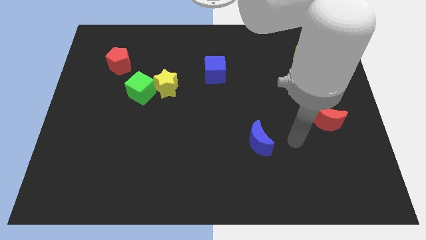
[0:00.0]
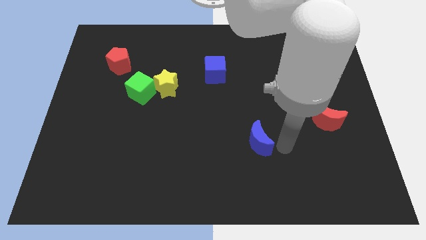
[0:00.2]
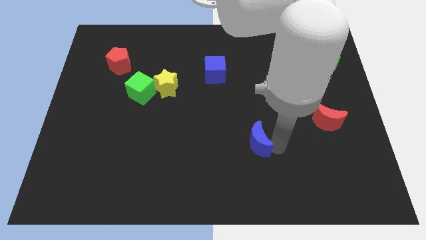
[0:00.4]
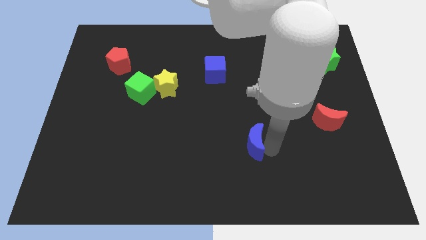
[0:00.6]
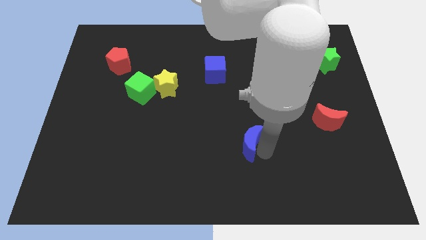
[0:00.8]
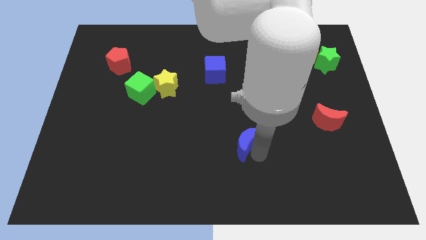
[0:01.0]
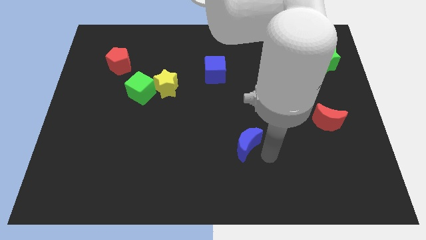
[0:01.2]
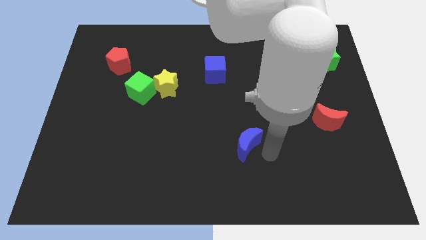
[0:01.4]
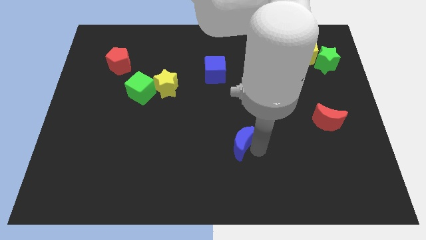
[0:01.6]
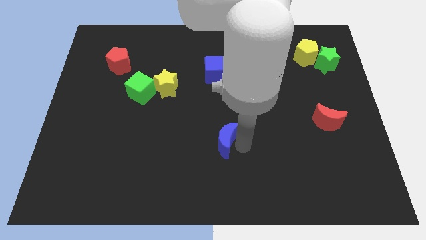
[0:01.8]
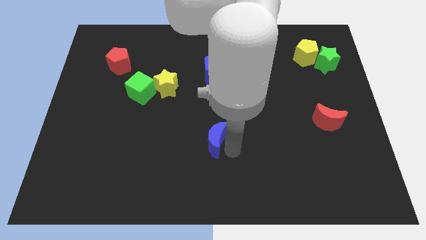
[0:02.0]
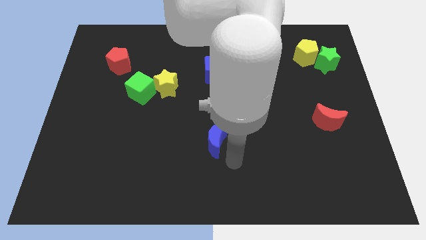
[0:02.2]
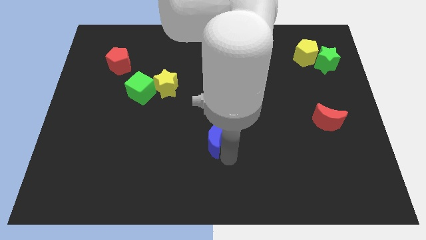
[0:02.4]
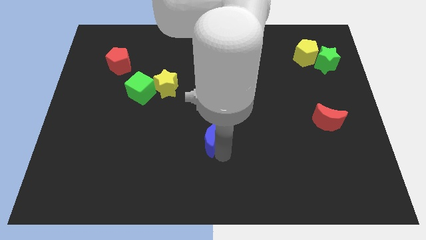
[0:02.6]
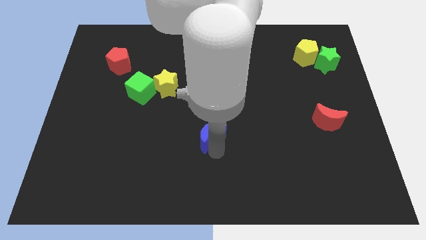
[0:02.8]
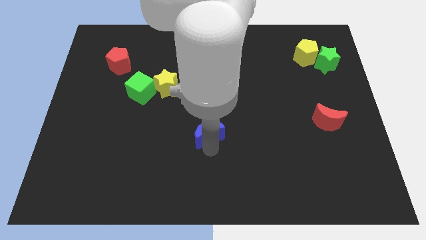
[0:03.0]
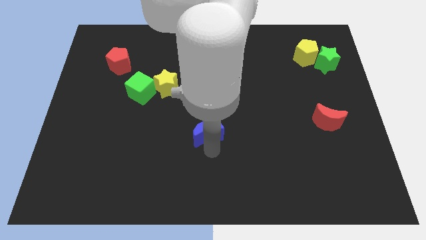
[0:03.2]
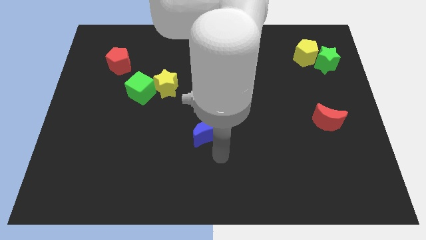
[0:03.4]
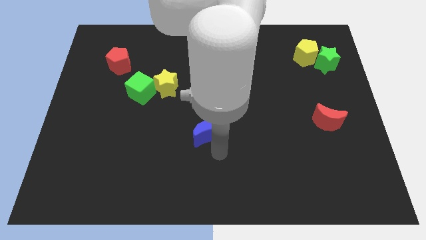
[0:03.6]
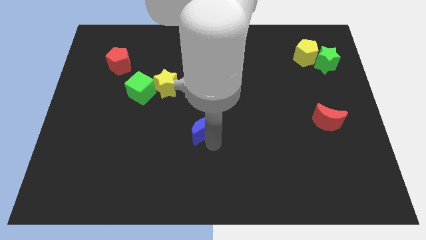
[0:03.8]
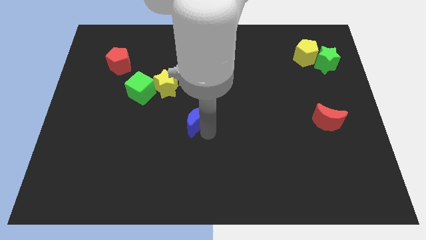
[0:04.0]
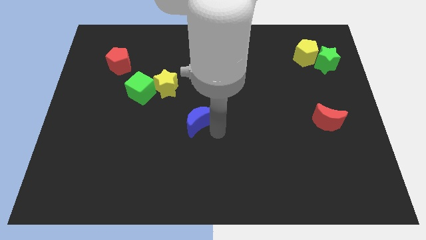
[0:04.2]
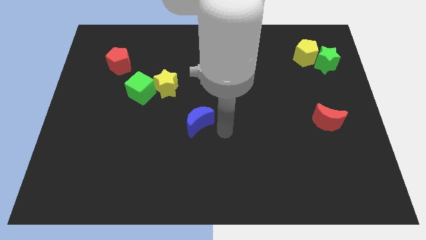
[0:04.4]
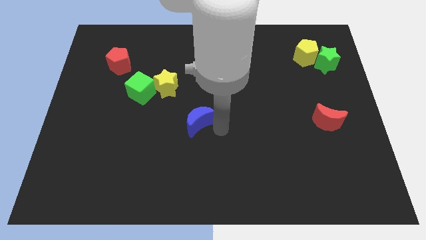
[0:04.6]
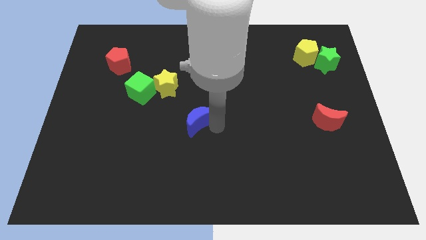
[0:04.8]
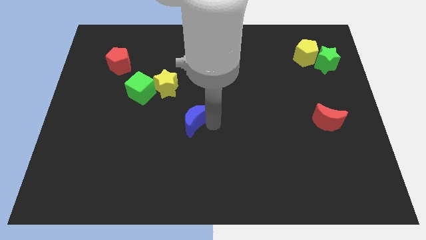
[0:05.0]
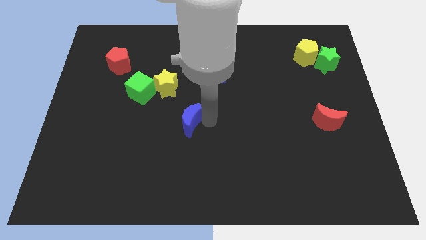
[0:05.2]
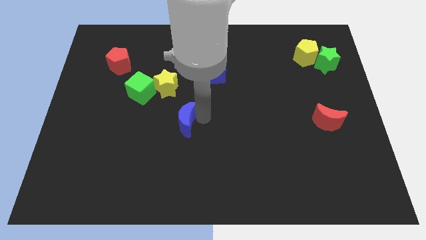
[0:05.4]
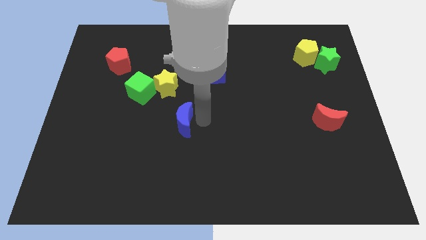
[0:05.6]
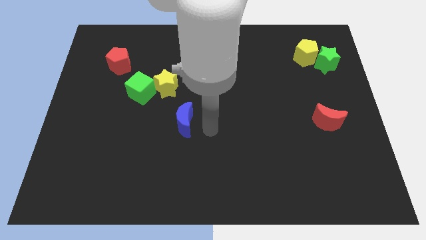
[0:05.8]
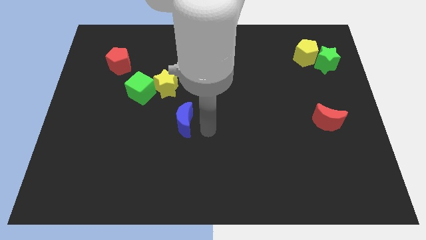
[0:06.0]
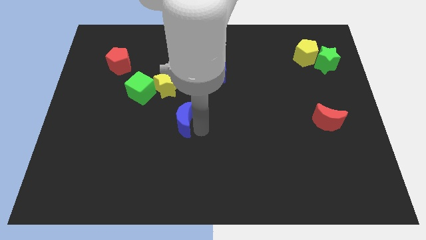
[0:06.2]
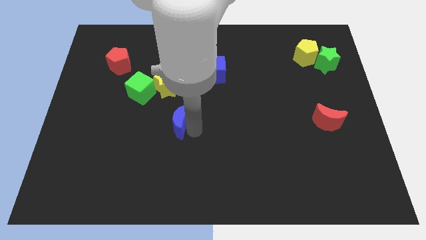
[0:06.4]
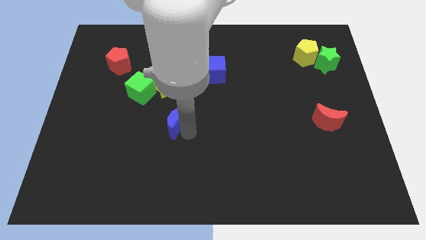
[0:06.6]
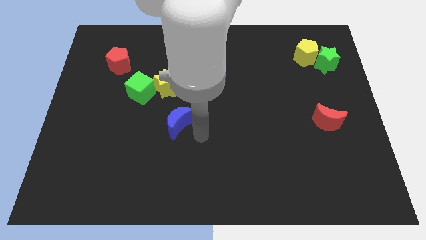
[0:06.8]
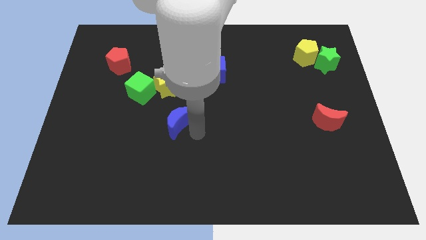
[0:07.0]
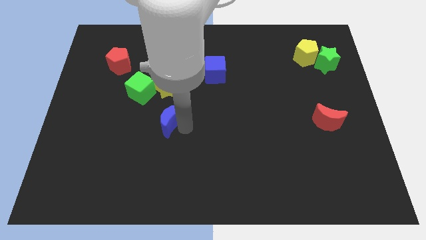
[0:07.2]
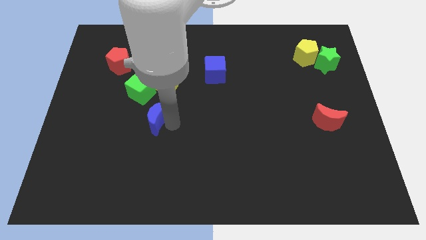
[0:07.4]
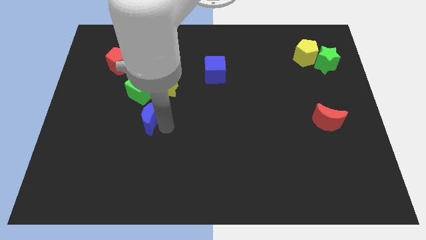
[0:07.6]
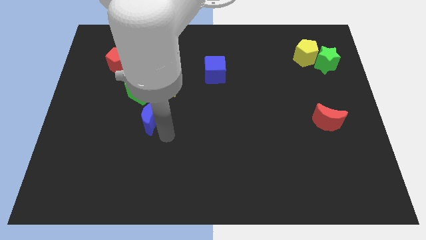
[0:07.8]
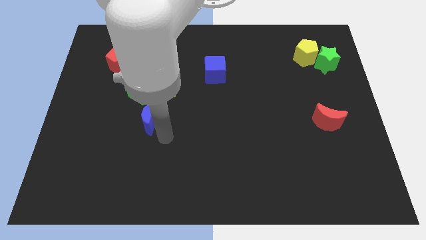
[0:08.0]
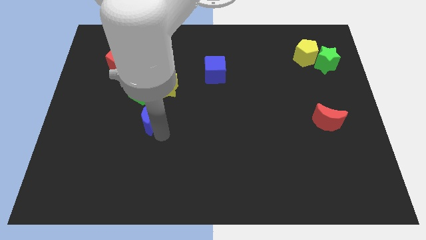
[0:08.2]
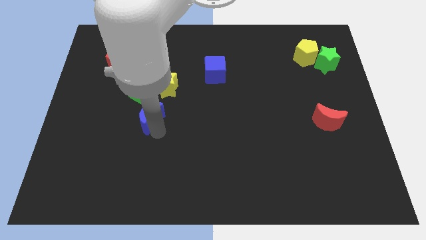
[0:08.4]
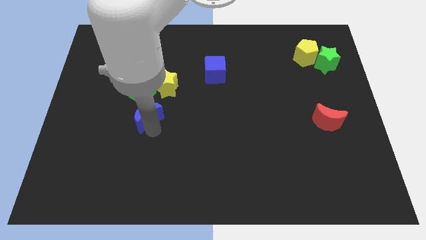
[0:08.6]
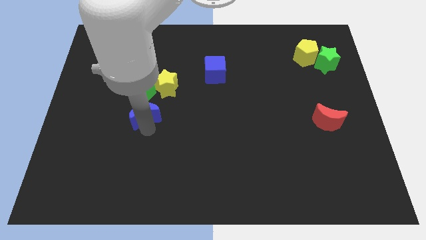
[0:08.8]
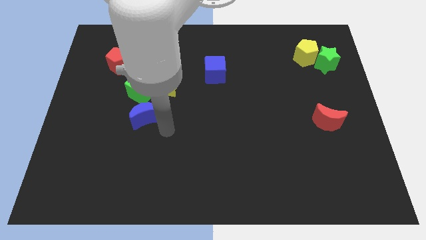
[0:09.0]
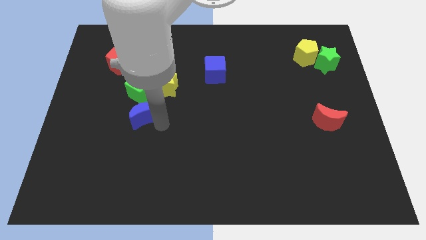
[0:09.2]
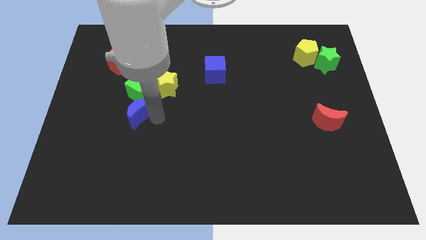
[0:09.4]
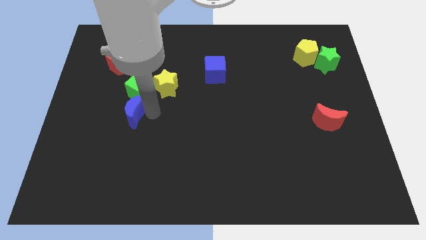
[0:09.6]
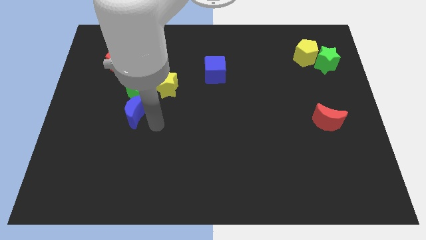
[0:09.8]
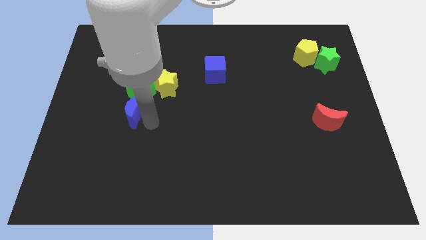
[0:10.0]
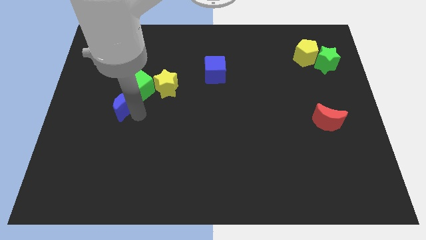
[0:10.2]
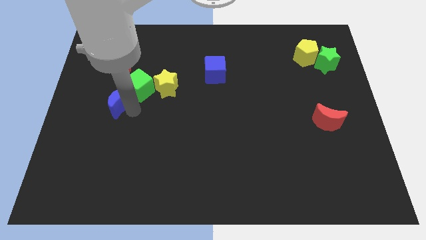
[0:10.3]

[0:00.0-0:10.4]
slide the blue moon just left of the green cube

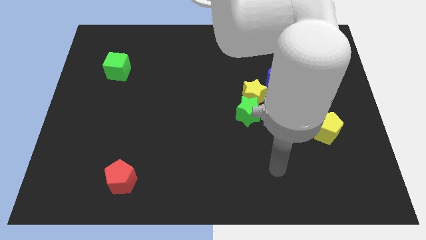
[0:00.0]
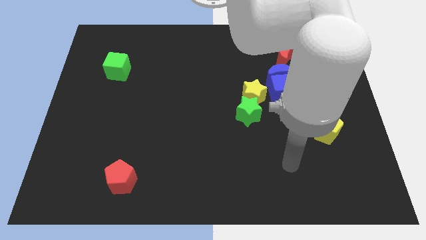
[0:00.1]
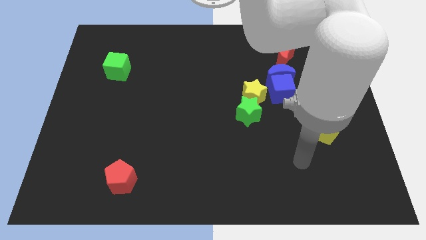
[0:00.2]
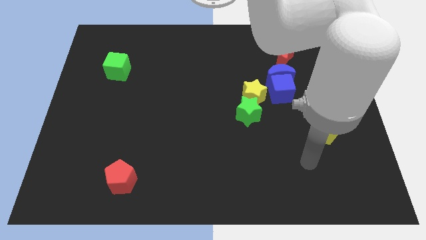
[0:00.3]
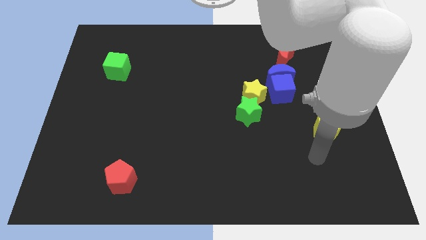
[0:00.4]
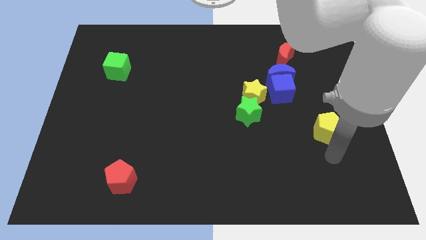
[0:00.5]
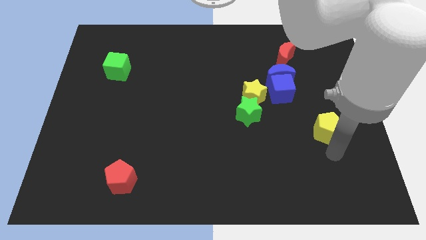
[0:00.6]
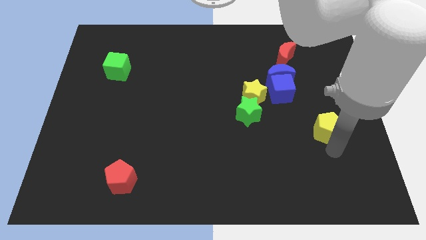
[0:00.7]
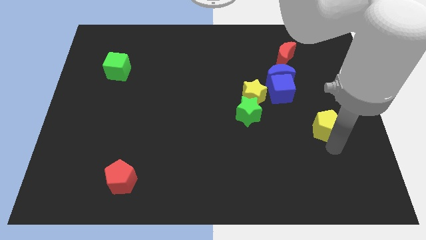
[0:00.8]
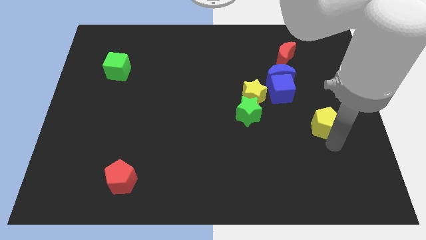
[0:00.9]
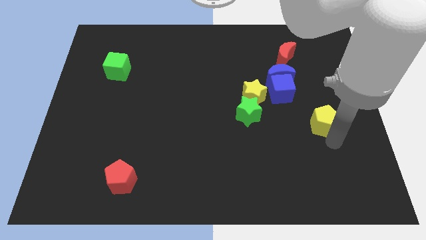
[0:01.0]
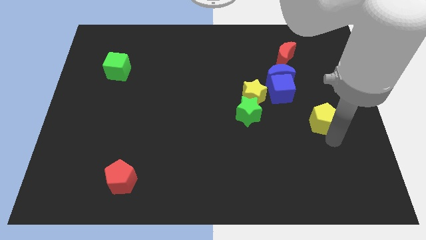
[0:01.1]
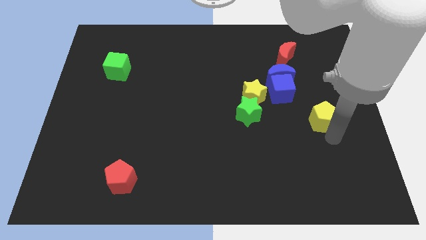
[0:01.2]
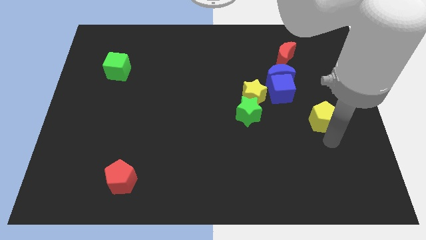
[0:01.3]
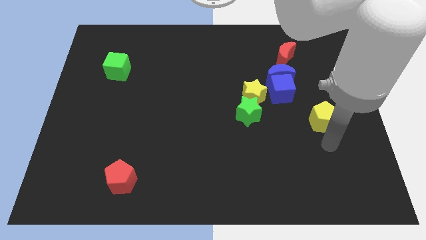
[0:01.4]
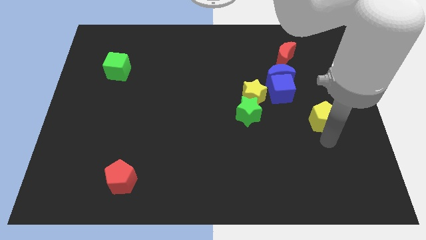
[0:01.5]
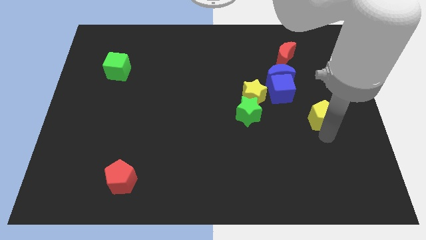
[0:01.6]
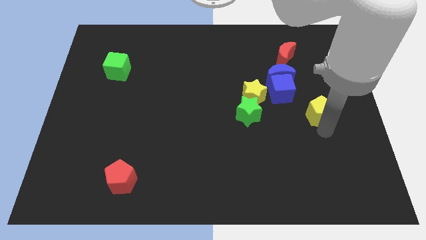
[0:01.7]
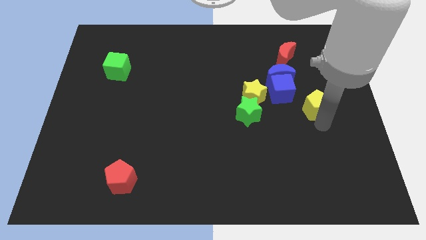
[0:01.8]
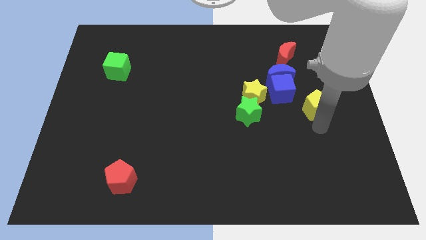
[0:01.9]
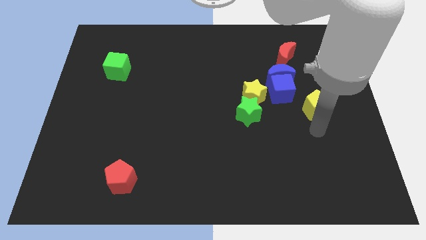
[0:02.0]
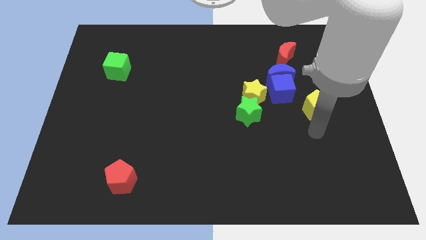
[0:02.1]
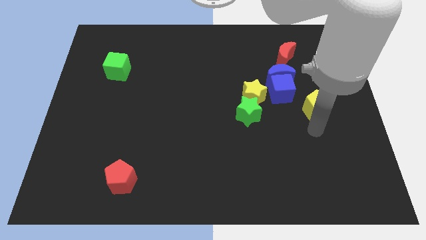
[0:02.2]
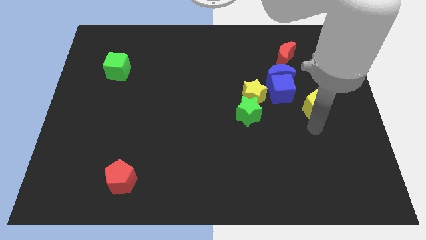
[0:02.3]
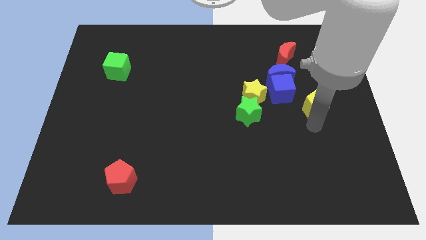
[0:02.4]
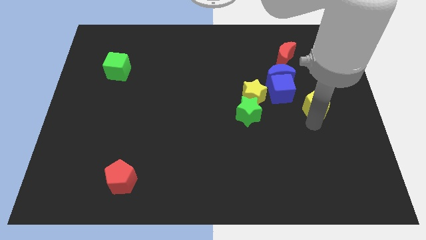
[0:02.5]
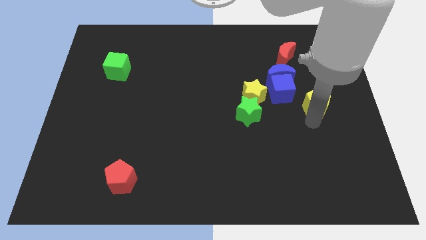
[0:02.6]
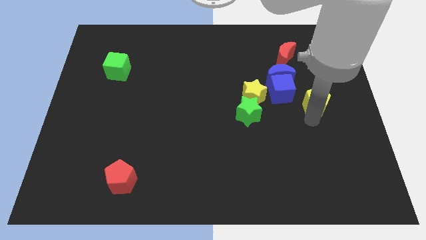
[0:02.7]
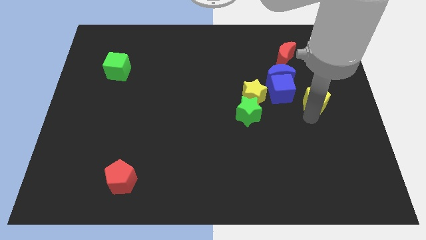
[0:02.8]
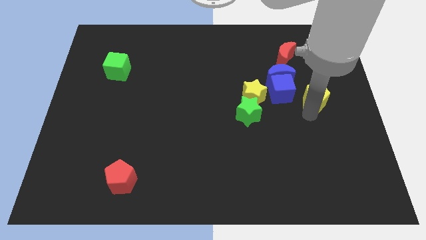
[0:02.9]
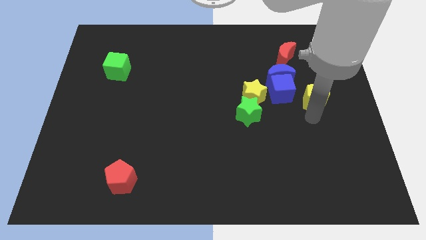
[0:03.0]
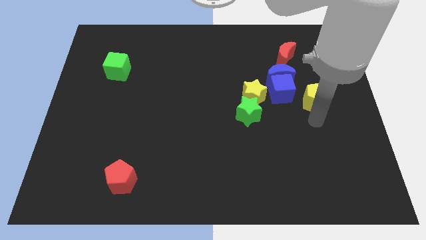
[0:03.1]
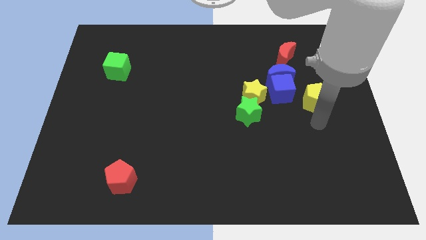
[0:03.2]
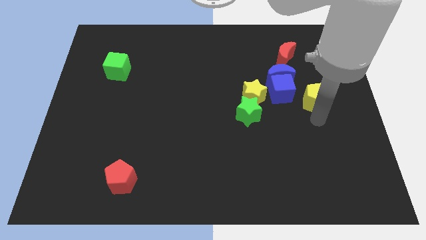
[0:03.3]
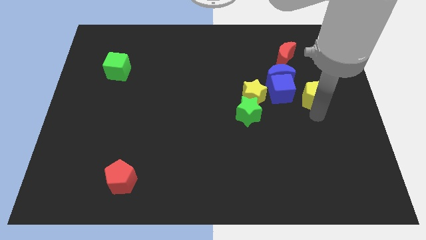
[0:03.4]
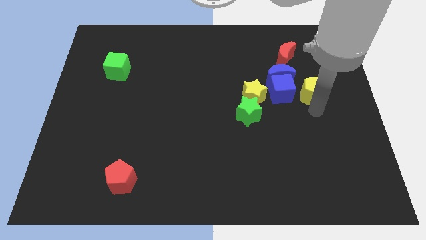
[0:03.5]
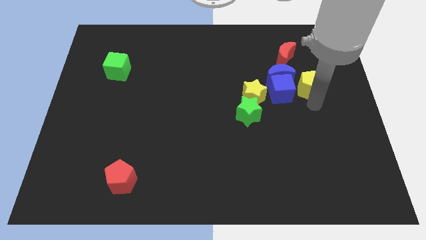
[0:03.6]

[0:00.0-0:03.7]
put the yellow pentagon to the bottom right of the red moon
